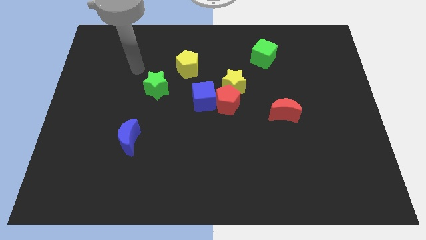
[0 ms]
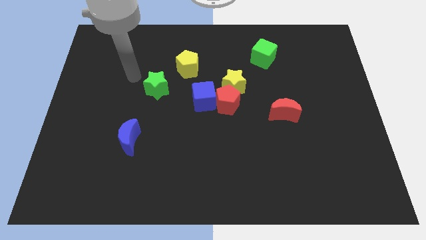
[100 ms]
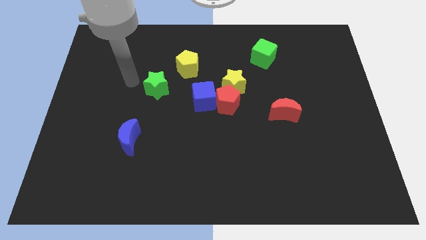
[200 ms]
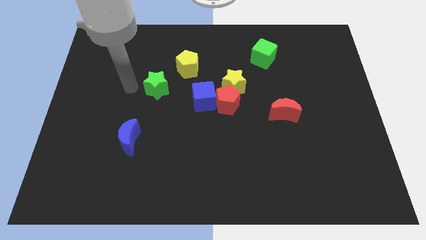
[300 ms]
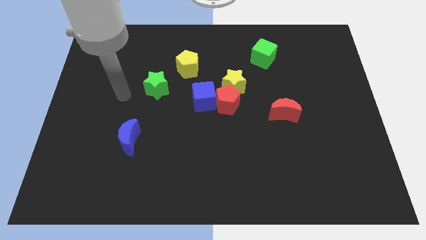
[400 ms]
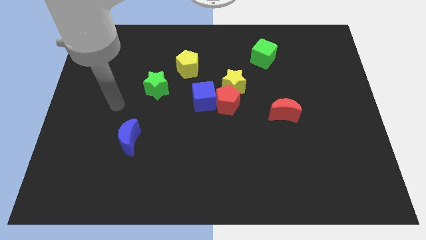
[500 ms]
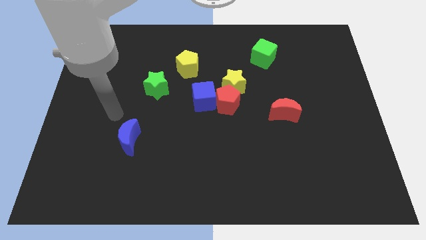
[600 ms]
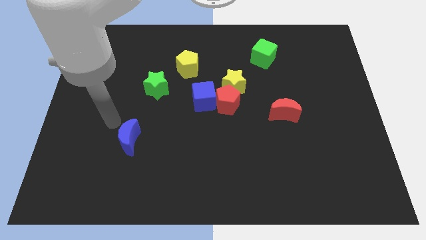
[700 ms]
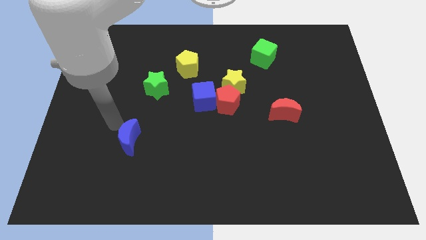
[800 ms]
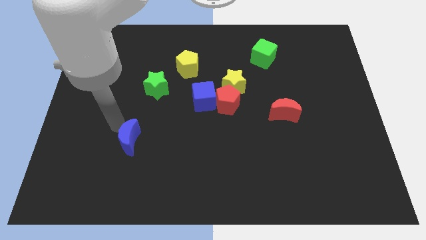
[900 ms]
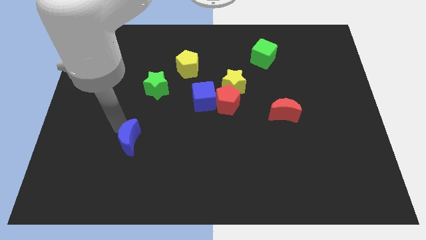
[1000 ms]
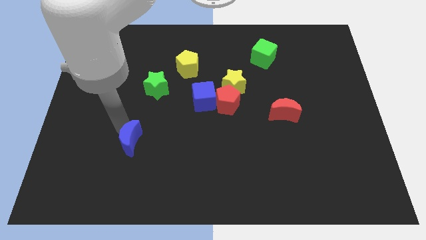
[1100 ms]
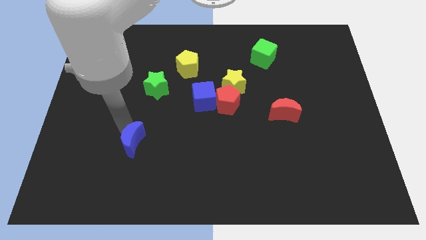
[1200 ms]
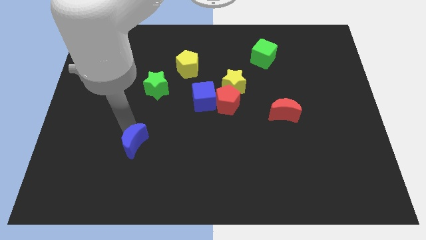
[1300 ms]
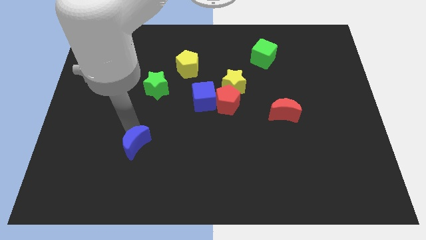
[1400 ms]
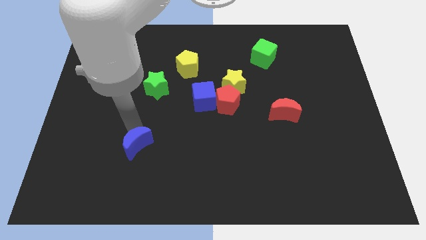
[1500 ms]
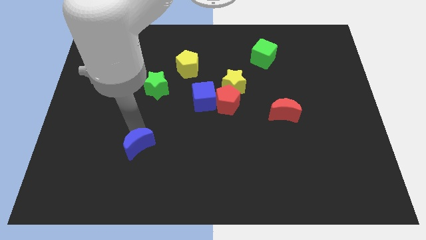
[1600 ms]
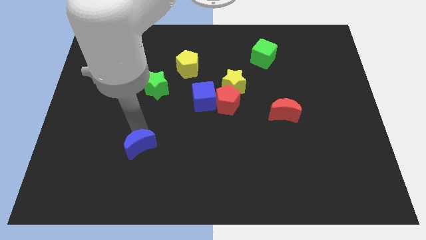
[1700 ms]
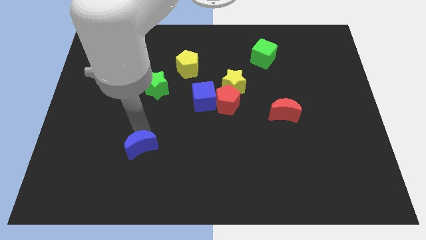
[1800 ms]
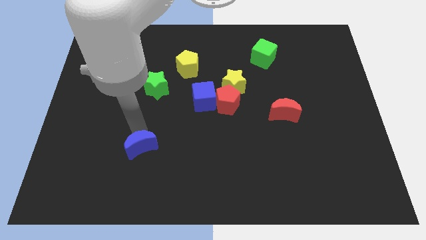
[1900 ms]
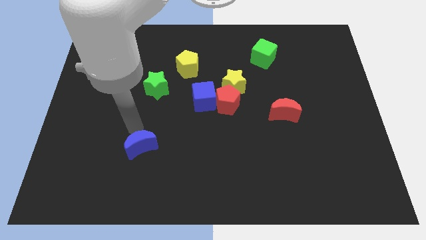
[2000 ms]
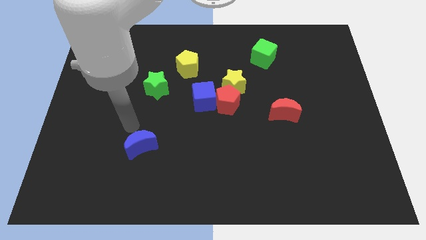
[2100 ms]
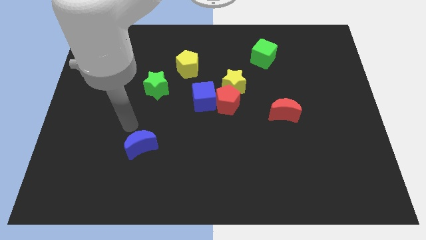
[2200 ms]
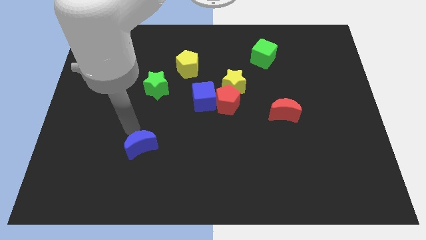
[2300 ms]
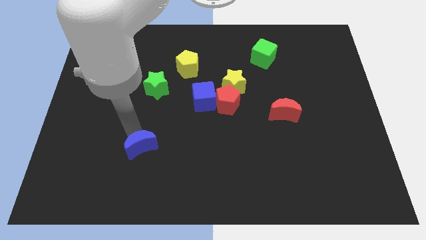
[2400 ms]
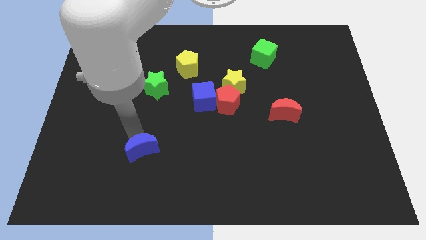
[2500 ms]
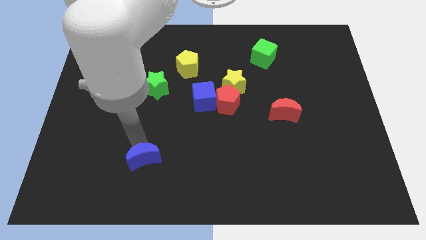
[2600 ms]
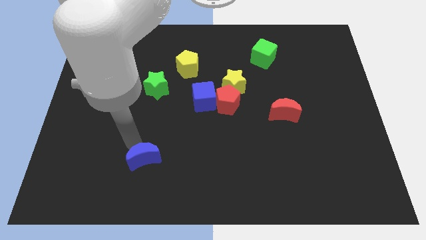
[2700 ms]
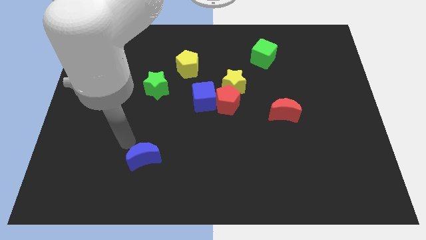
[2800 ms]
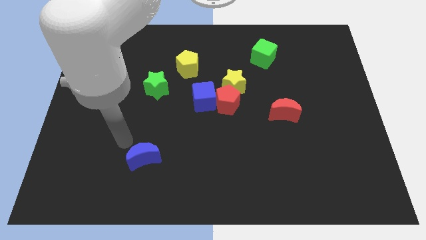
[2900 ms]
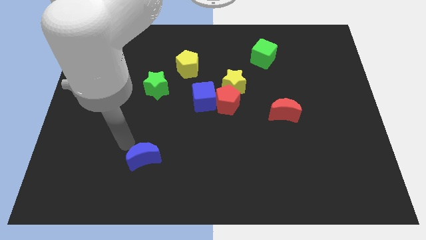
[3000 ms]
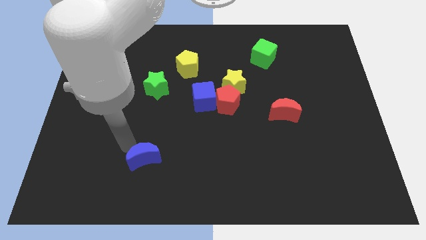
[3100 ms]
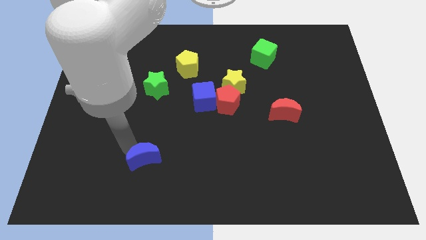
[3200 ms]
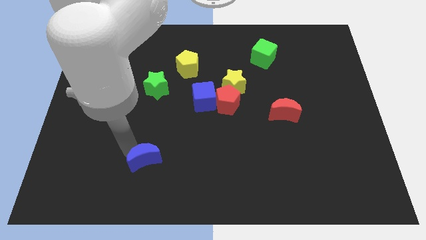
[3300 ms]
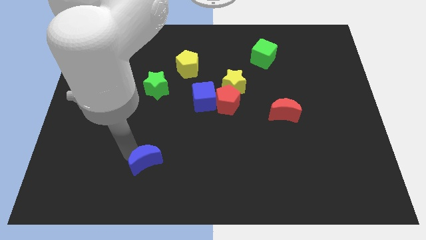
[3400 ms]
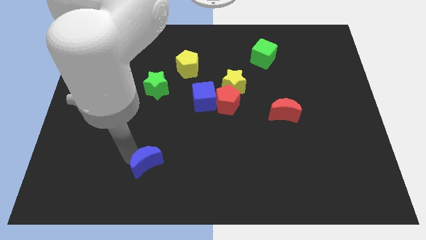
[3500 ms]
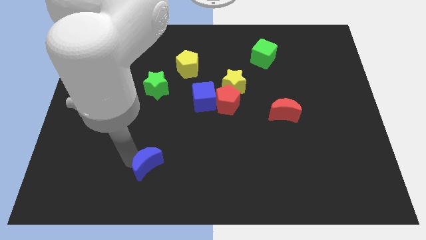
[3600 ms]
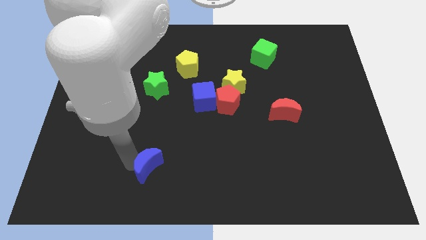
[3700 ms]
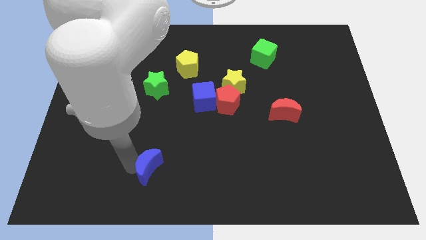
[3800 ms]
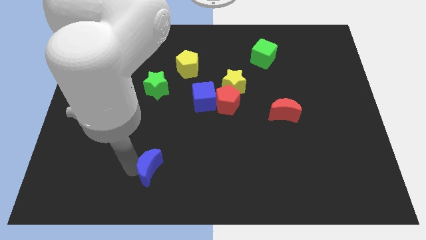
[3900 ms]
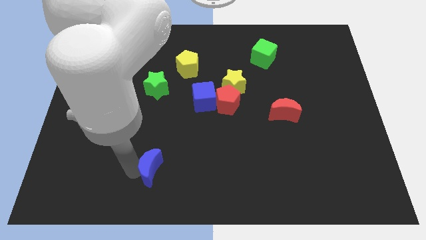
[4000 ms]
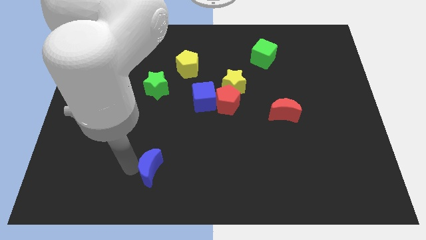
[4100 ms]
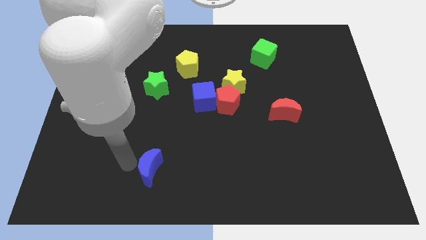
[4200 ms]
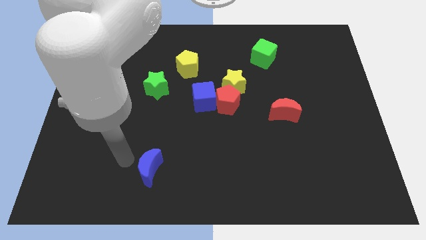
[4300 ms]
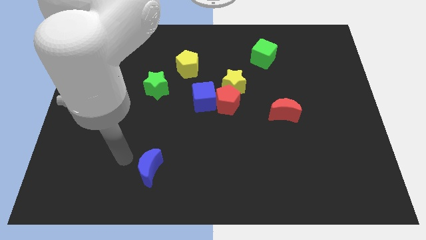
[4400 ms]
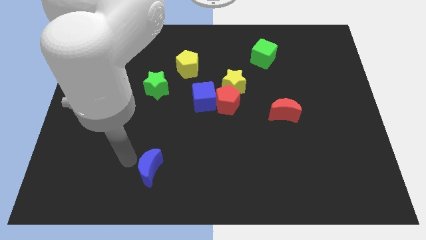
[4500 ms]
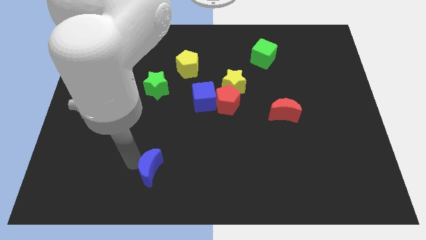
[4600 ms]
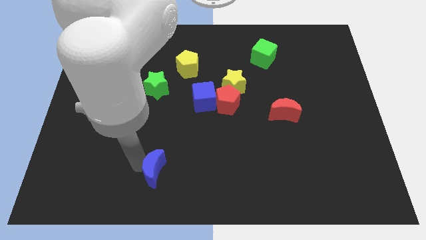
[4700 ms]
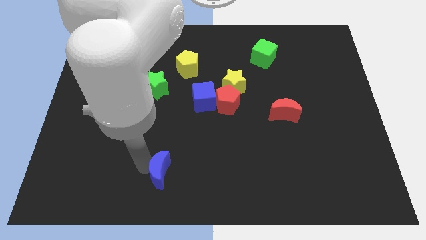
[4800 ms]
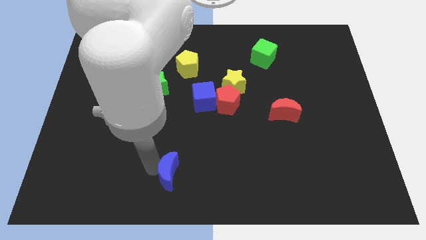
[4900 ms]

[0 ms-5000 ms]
slide the blue moon to the bottom

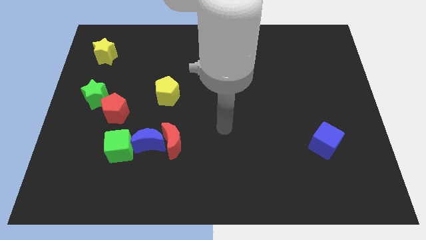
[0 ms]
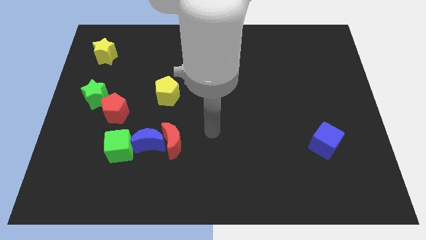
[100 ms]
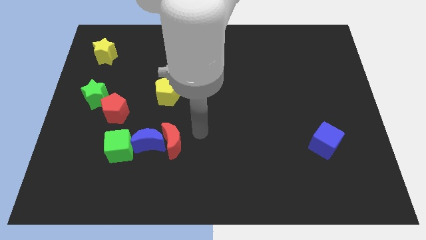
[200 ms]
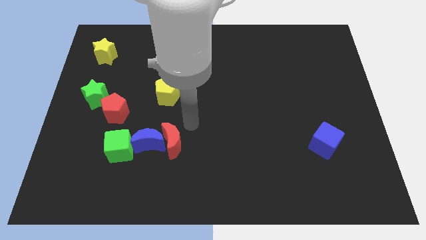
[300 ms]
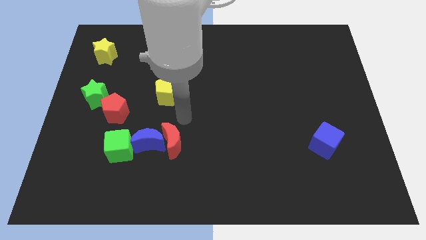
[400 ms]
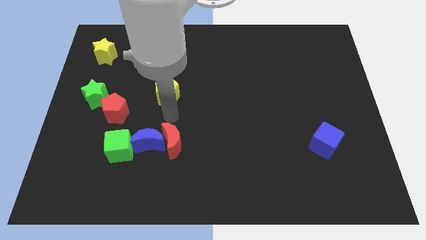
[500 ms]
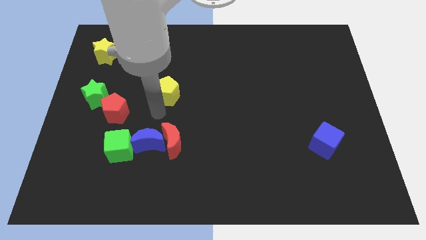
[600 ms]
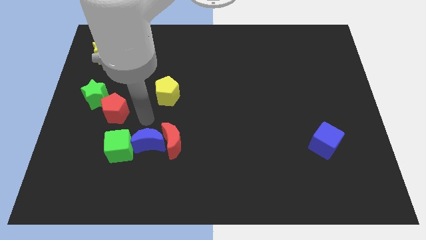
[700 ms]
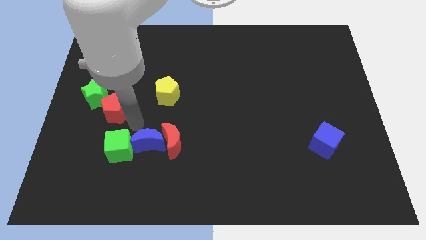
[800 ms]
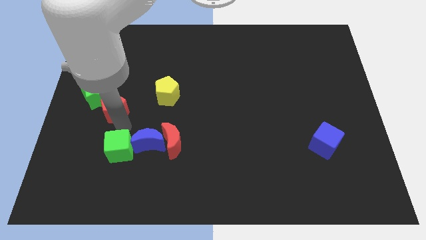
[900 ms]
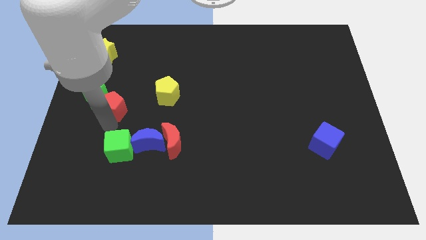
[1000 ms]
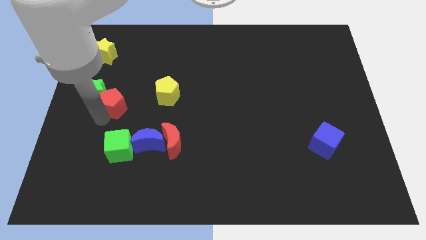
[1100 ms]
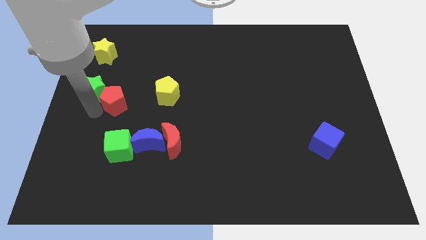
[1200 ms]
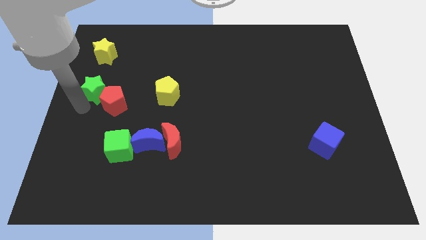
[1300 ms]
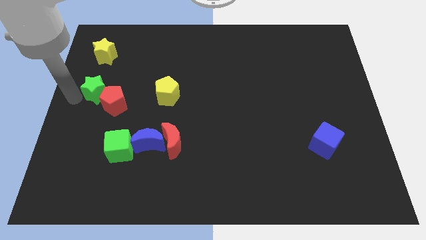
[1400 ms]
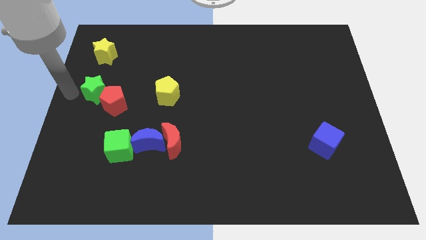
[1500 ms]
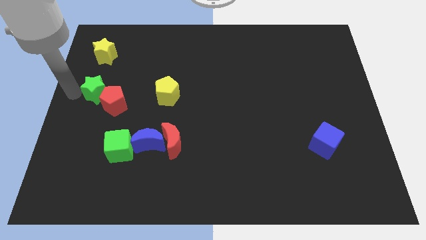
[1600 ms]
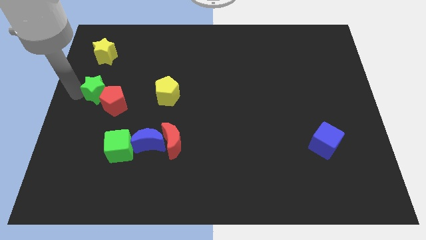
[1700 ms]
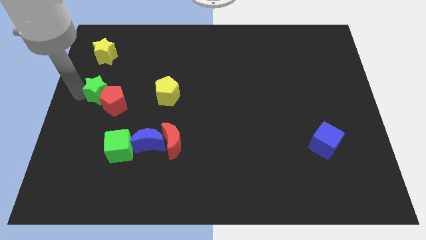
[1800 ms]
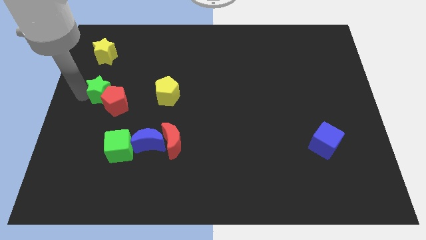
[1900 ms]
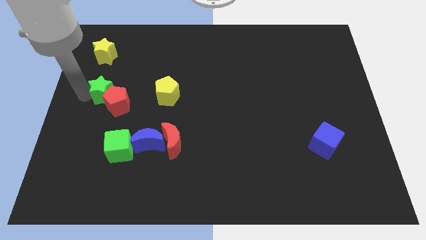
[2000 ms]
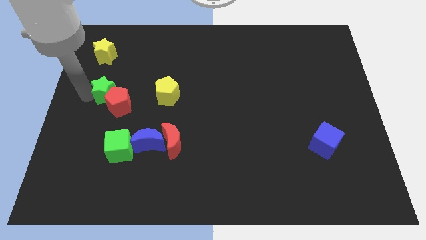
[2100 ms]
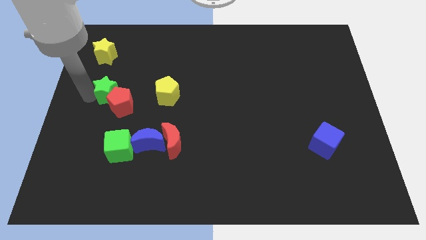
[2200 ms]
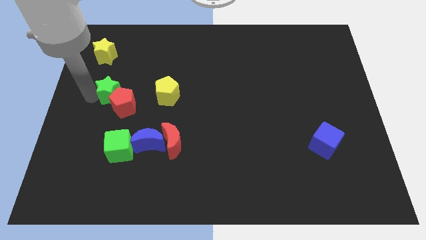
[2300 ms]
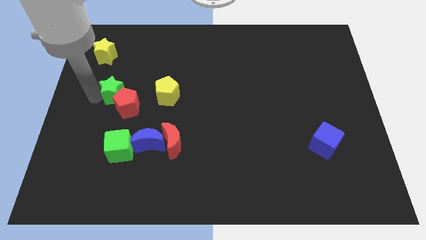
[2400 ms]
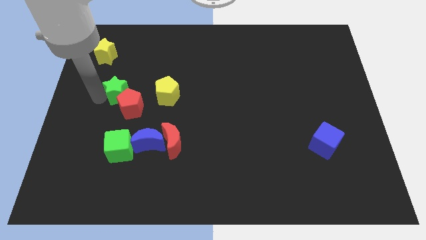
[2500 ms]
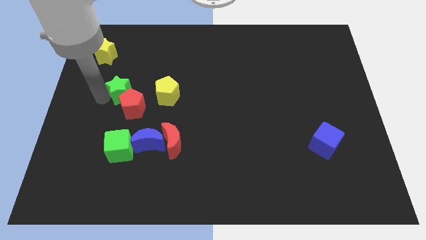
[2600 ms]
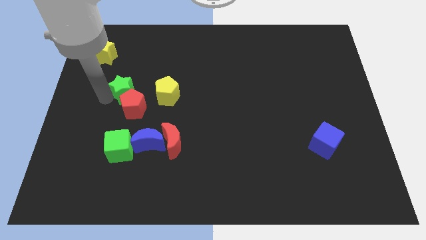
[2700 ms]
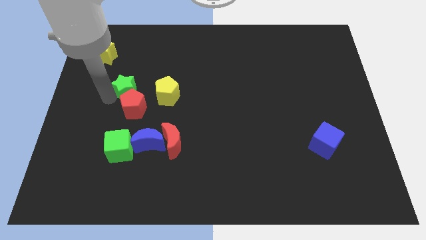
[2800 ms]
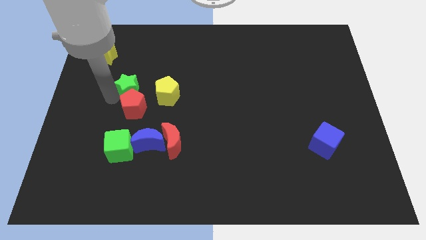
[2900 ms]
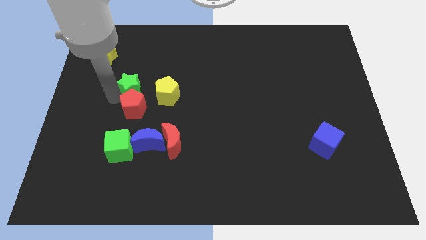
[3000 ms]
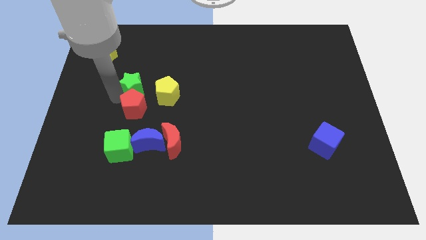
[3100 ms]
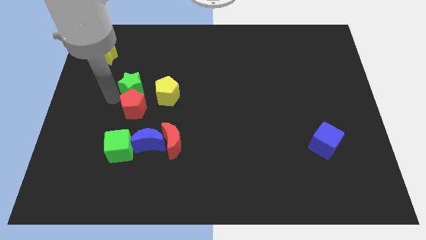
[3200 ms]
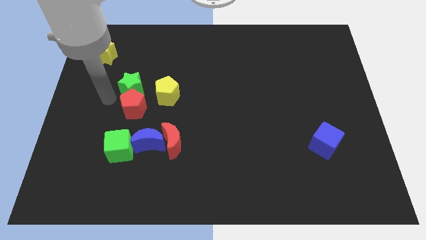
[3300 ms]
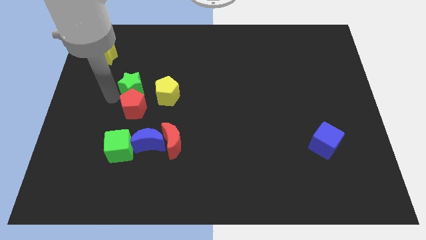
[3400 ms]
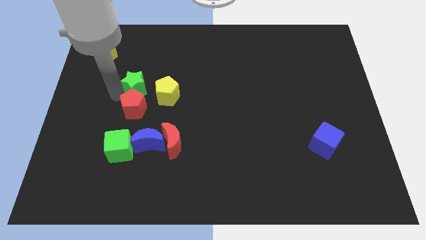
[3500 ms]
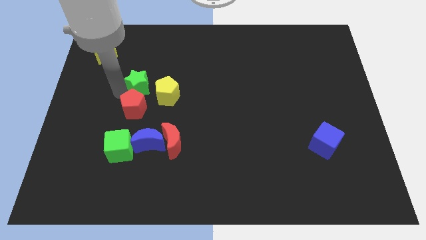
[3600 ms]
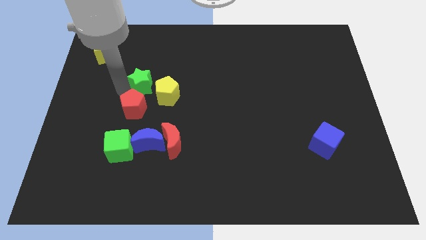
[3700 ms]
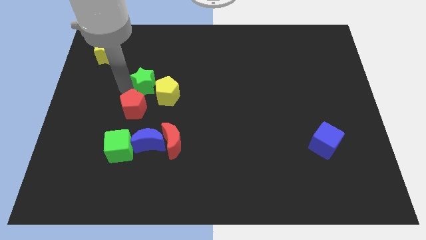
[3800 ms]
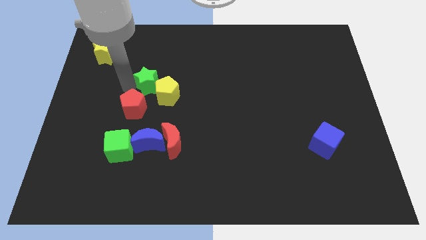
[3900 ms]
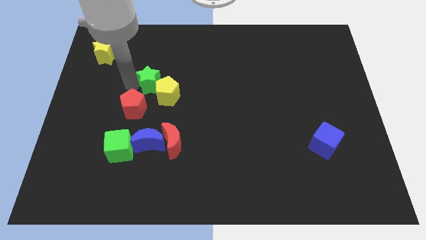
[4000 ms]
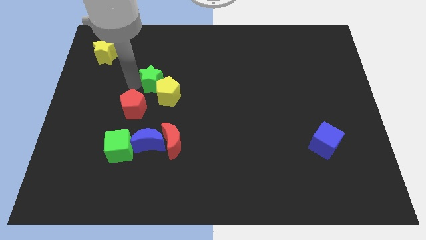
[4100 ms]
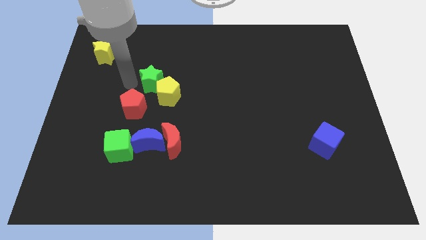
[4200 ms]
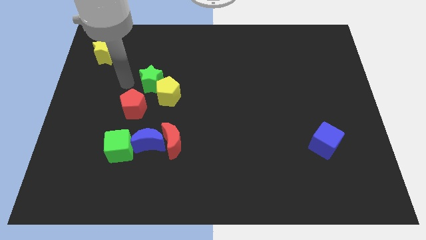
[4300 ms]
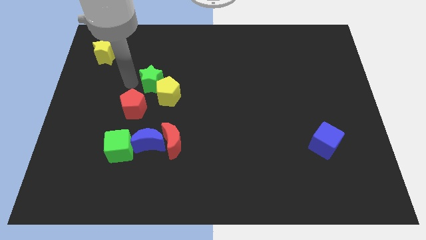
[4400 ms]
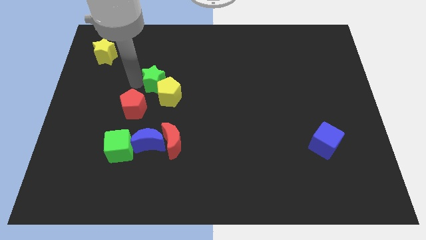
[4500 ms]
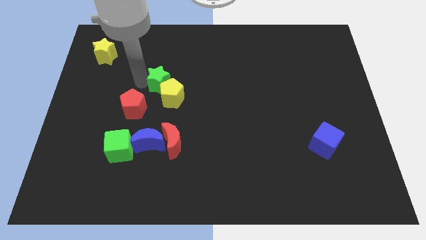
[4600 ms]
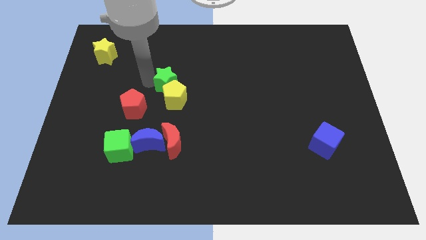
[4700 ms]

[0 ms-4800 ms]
slide the green star to the middle
